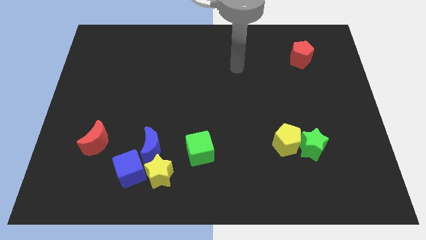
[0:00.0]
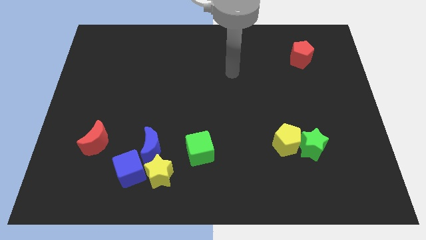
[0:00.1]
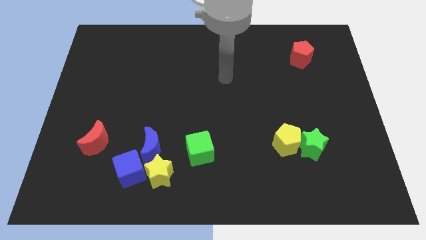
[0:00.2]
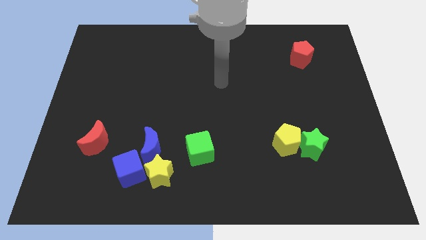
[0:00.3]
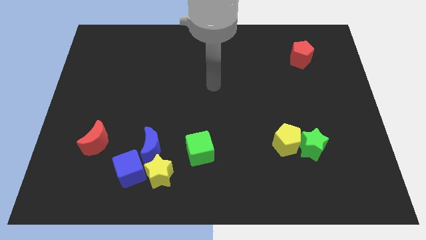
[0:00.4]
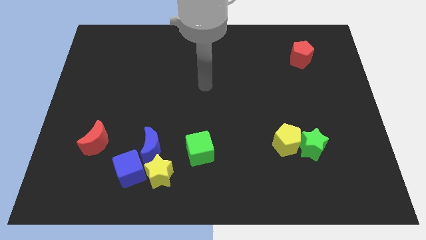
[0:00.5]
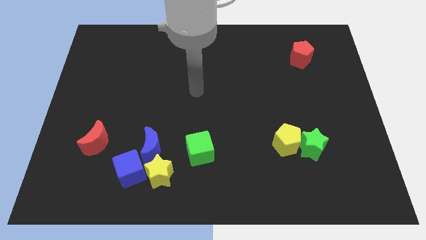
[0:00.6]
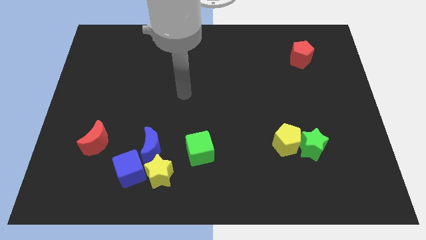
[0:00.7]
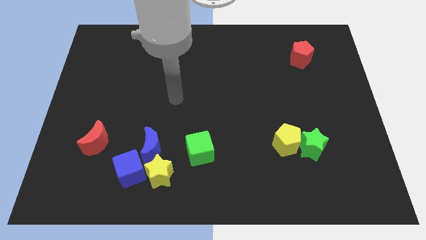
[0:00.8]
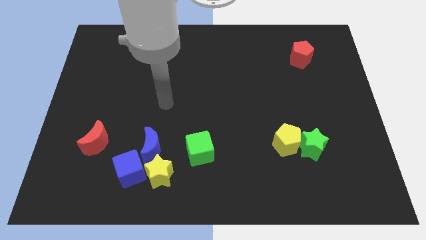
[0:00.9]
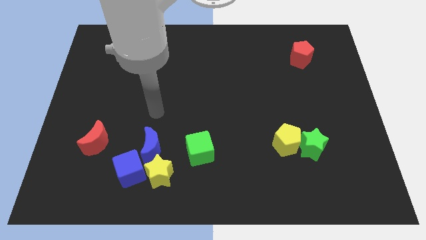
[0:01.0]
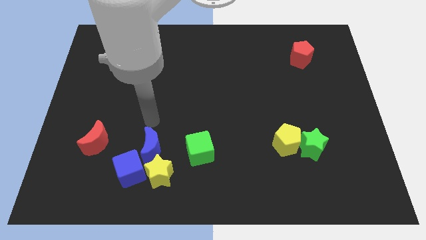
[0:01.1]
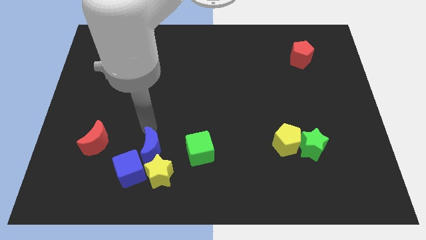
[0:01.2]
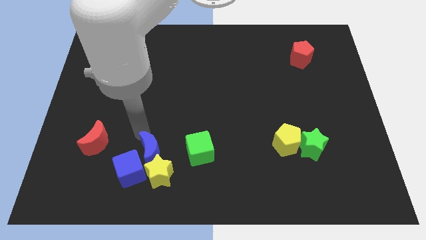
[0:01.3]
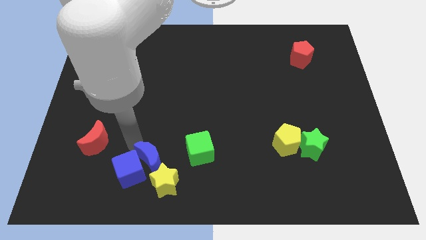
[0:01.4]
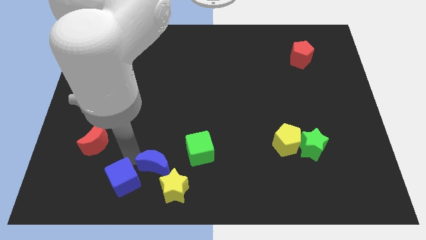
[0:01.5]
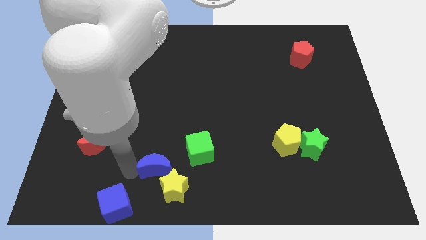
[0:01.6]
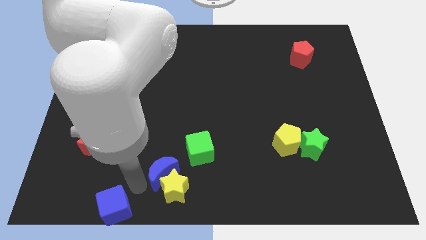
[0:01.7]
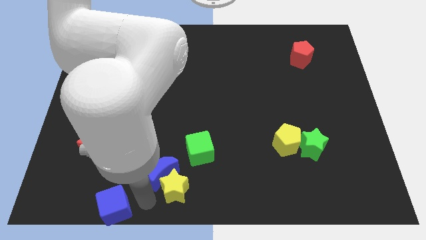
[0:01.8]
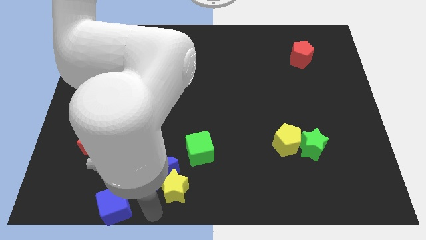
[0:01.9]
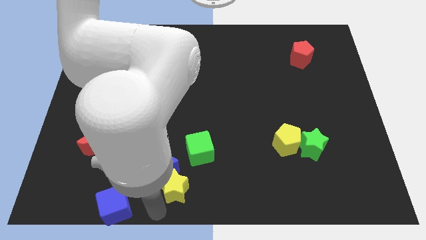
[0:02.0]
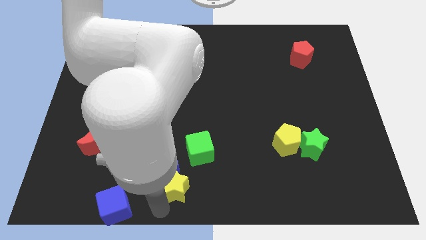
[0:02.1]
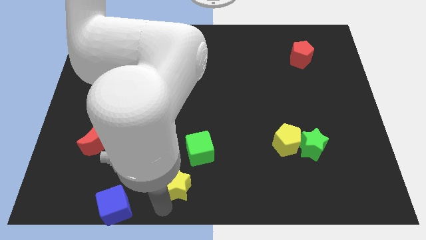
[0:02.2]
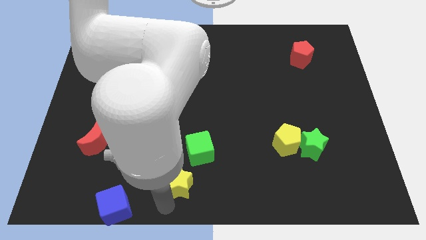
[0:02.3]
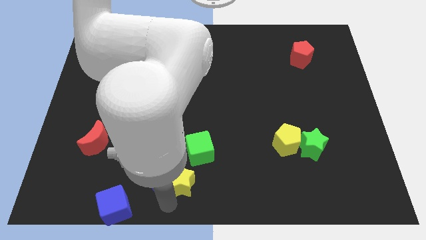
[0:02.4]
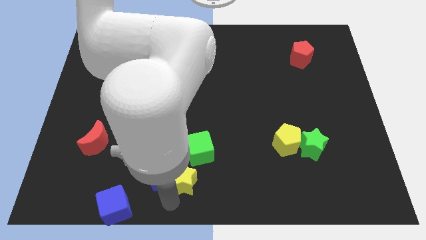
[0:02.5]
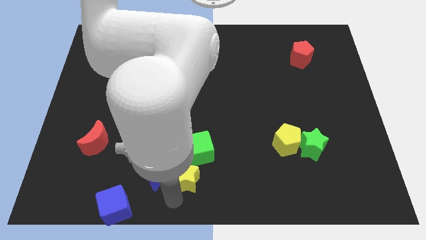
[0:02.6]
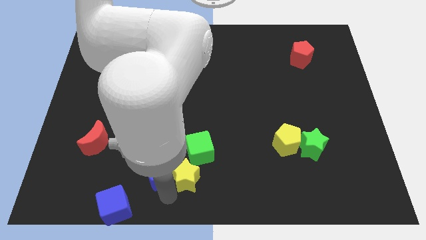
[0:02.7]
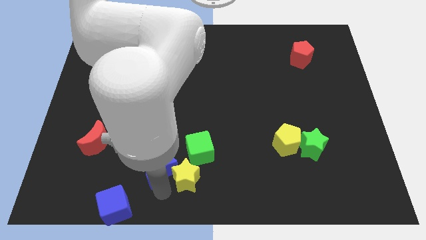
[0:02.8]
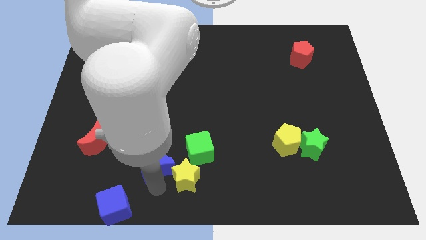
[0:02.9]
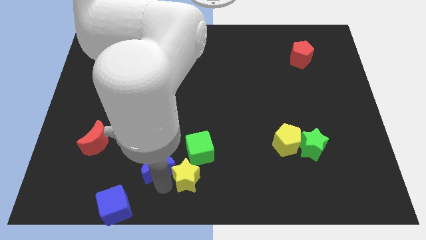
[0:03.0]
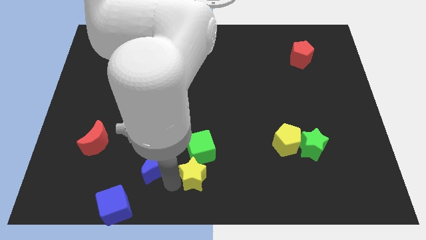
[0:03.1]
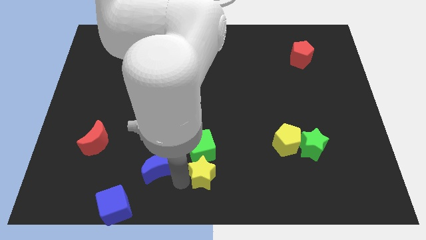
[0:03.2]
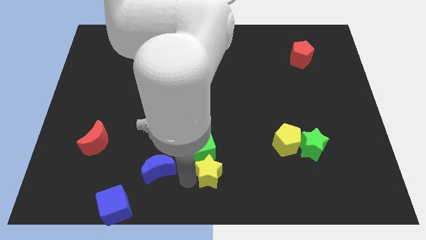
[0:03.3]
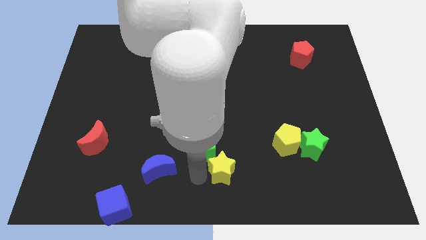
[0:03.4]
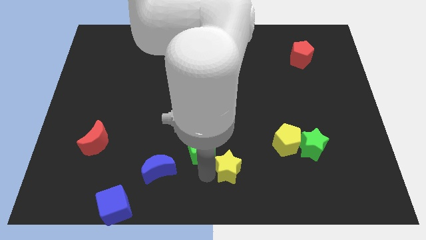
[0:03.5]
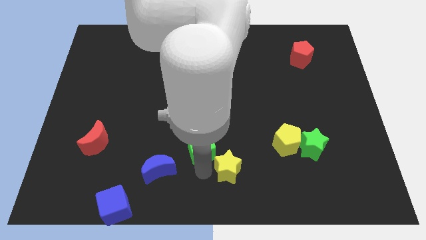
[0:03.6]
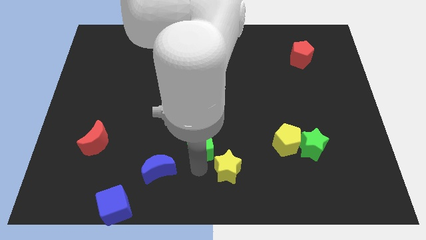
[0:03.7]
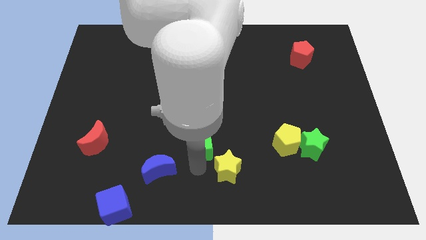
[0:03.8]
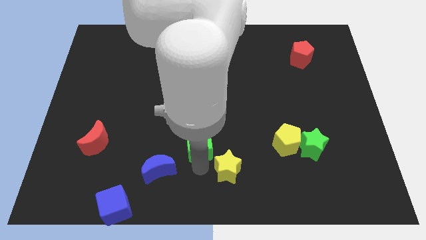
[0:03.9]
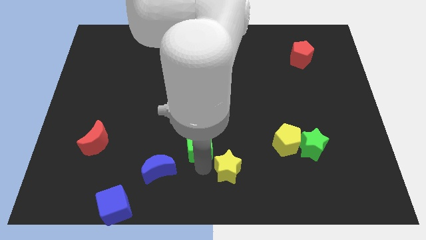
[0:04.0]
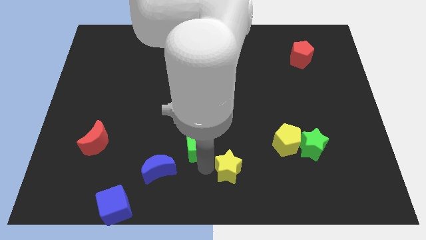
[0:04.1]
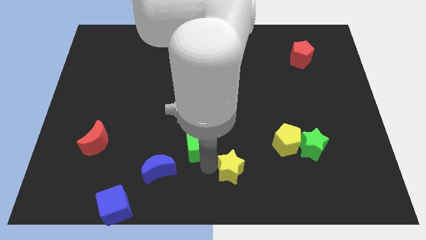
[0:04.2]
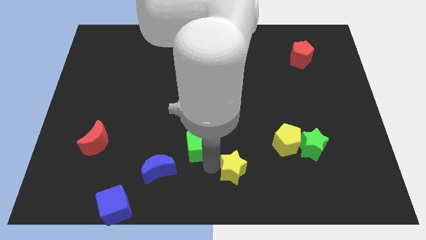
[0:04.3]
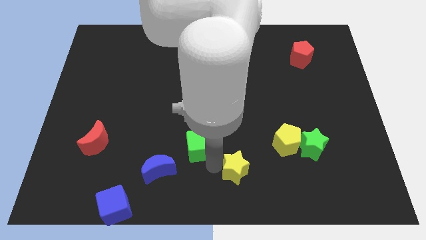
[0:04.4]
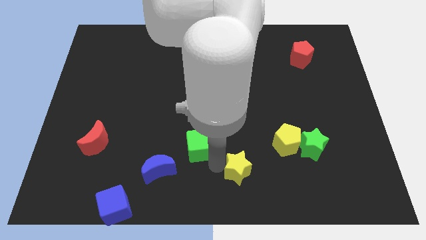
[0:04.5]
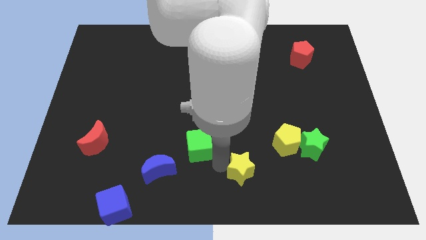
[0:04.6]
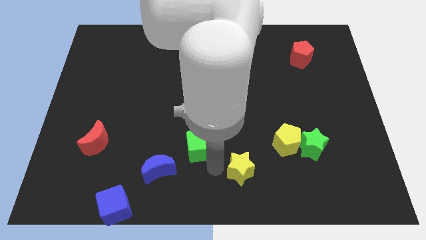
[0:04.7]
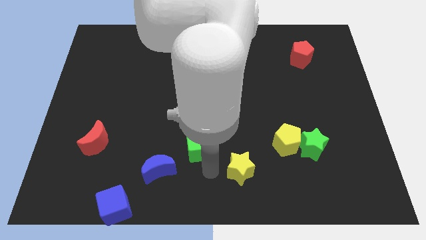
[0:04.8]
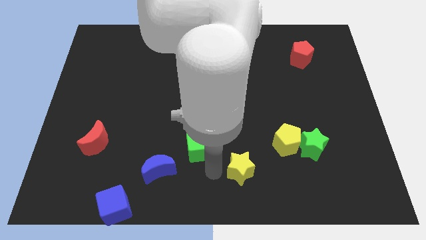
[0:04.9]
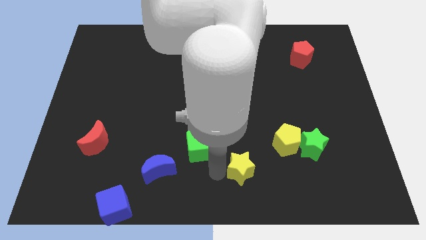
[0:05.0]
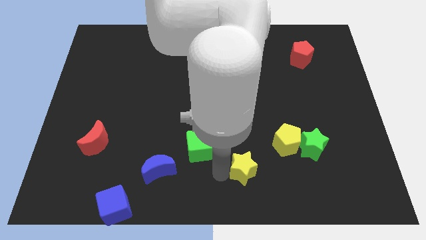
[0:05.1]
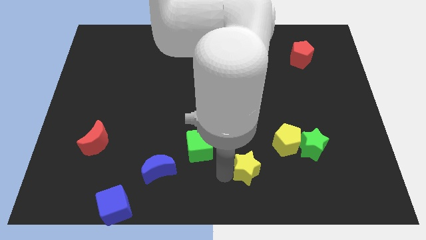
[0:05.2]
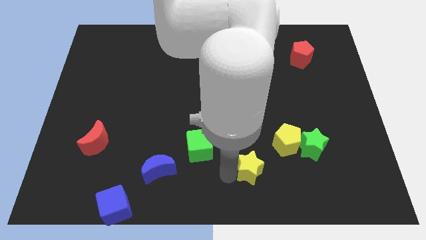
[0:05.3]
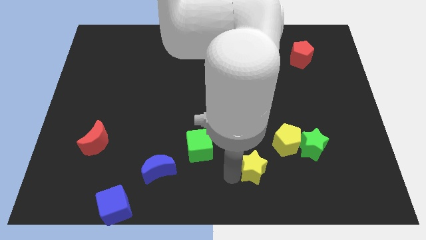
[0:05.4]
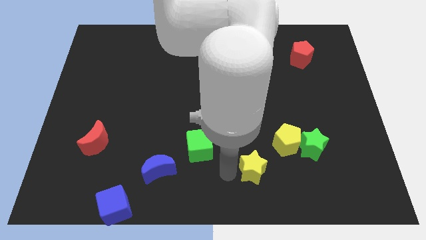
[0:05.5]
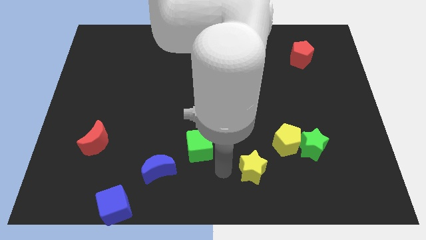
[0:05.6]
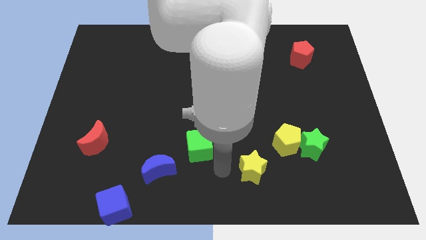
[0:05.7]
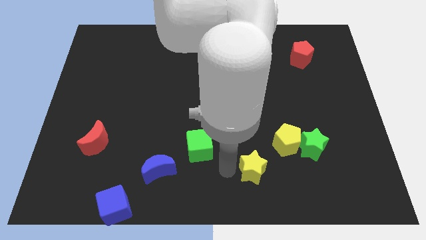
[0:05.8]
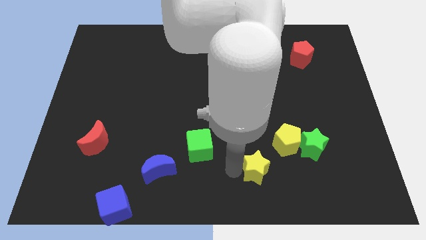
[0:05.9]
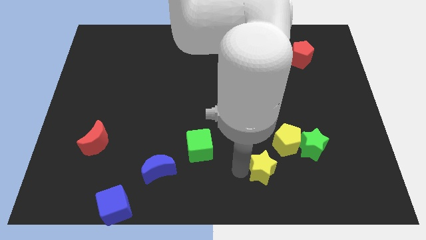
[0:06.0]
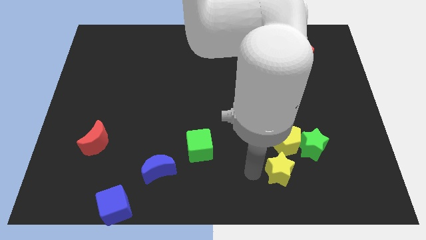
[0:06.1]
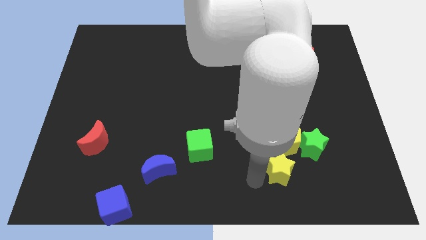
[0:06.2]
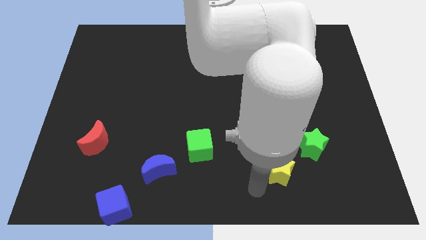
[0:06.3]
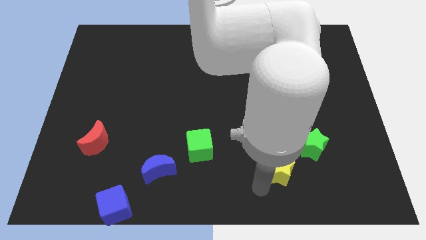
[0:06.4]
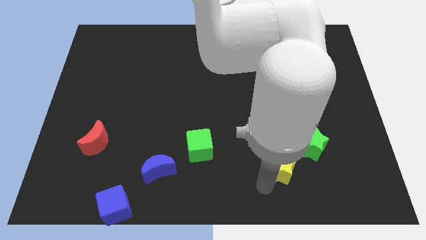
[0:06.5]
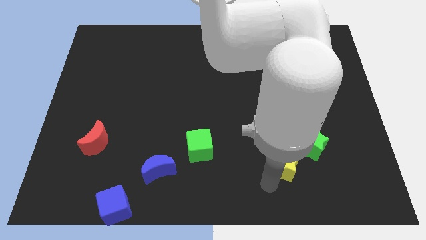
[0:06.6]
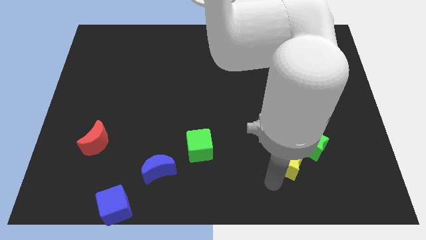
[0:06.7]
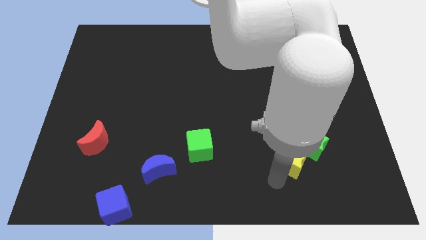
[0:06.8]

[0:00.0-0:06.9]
slide the yellow star next to the green star

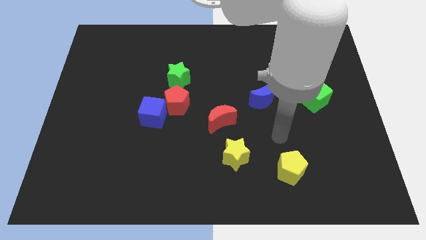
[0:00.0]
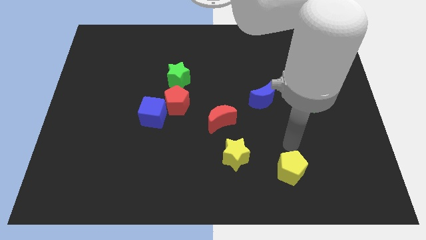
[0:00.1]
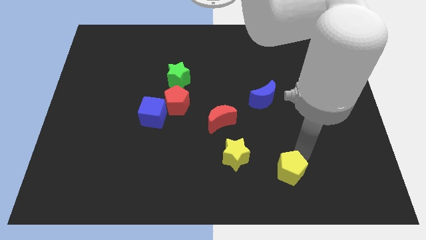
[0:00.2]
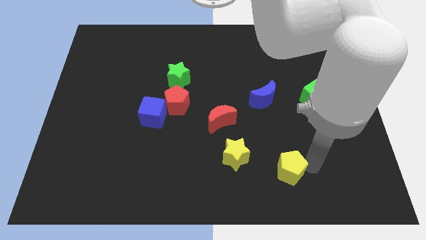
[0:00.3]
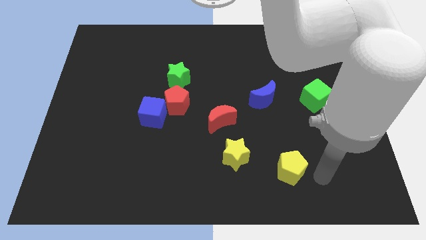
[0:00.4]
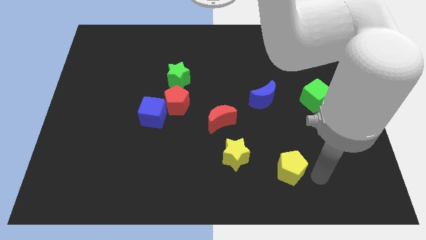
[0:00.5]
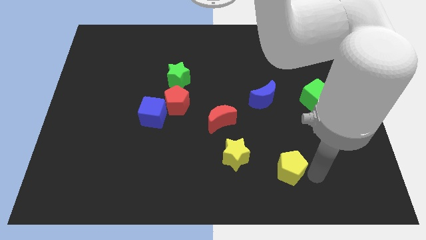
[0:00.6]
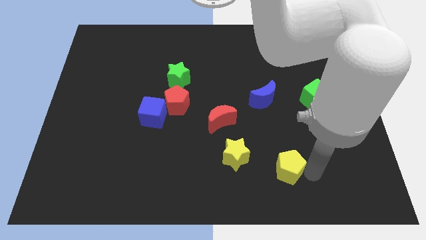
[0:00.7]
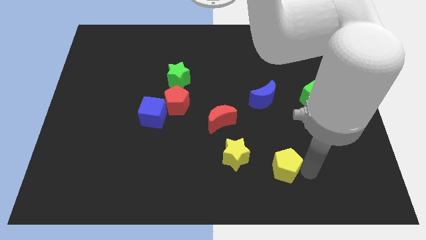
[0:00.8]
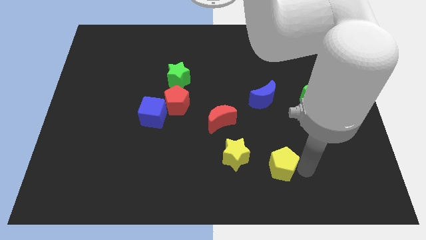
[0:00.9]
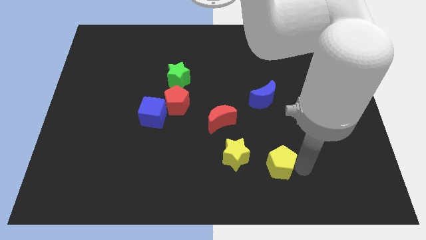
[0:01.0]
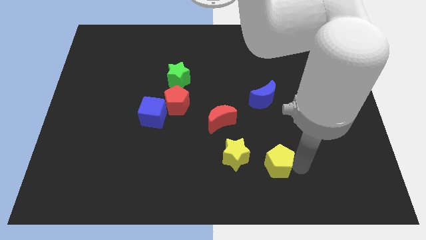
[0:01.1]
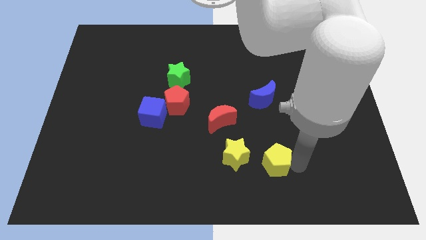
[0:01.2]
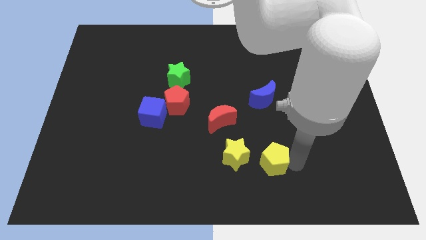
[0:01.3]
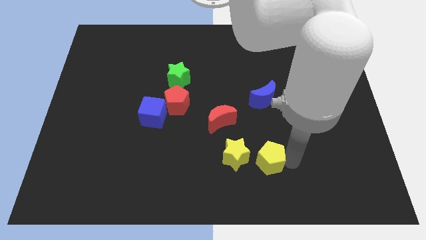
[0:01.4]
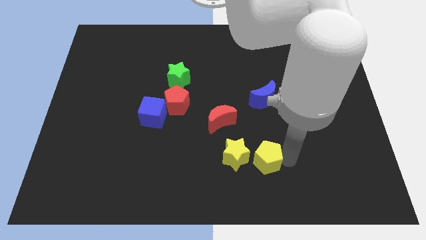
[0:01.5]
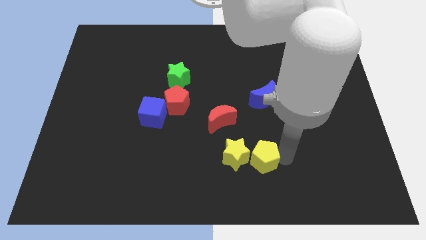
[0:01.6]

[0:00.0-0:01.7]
move the yellow pentagon next to the yellow star
